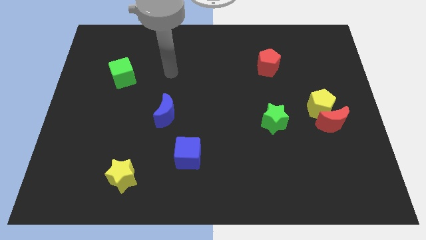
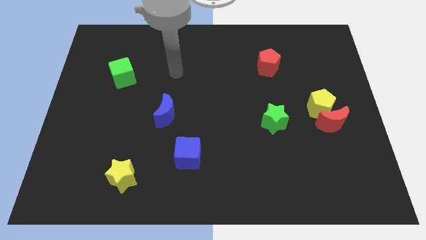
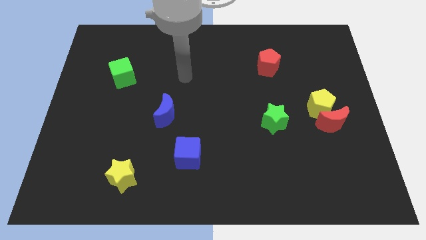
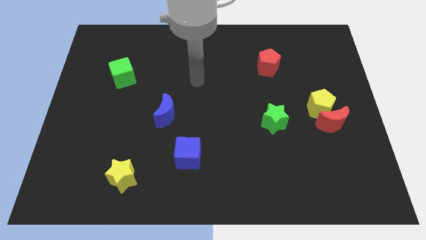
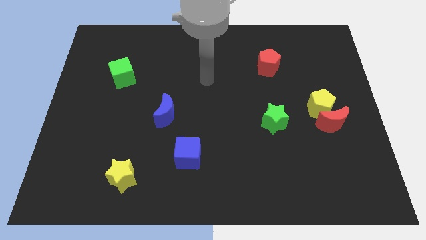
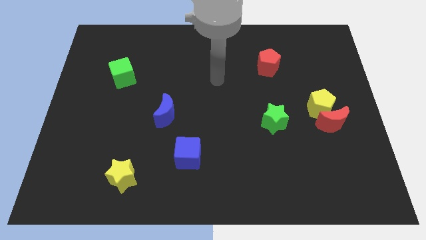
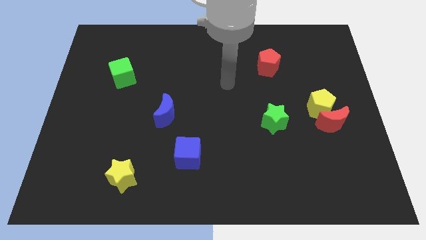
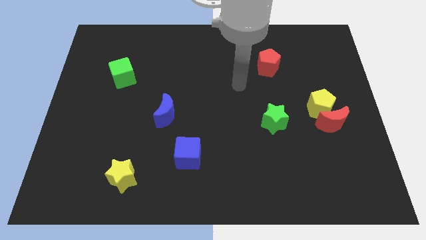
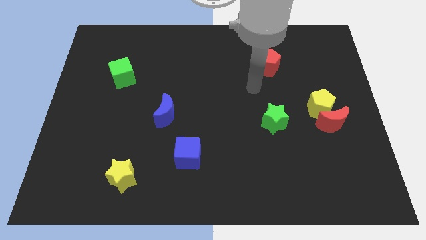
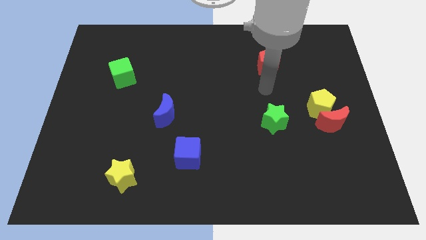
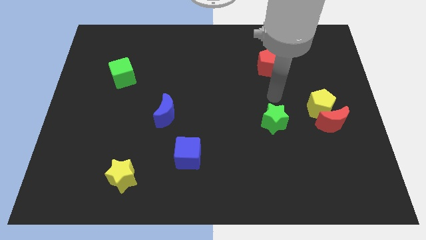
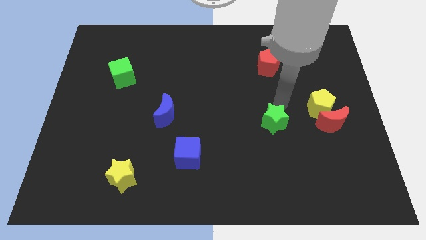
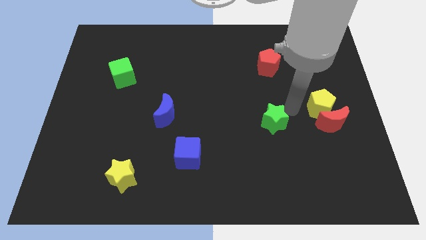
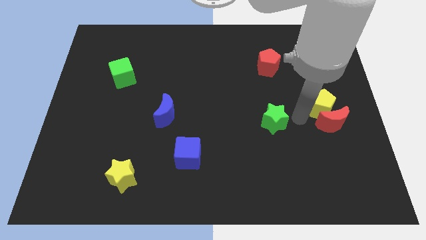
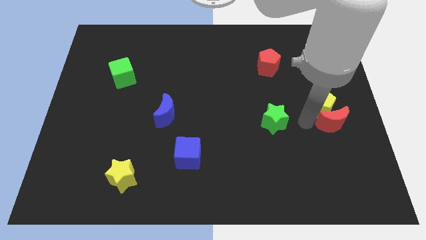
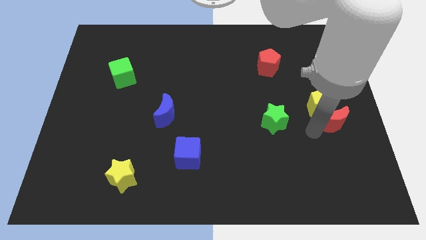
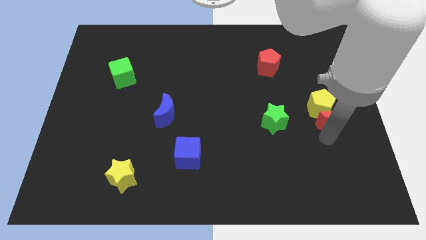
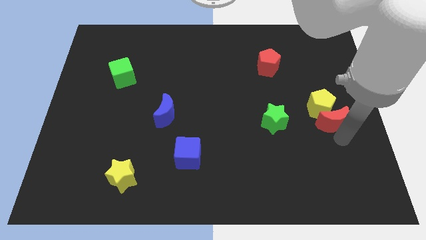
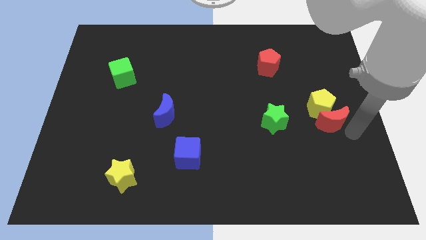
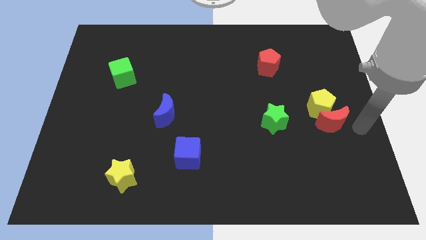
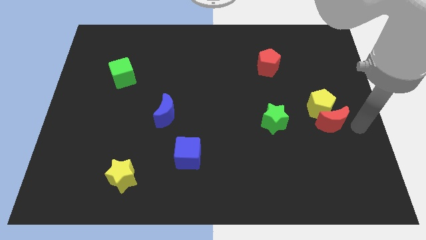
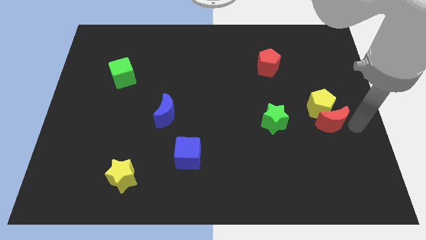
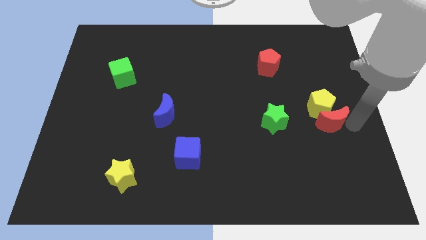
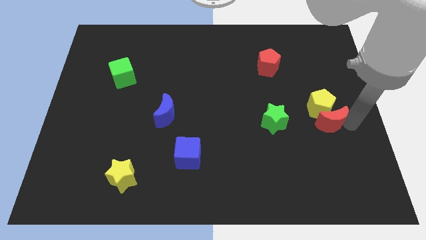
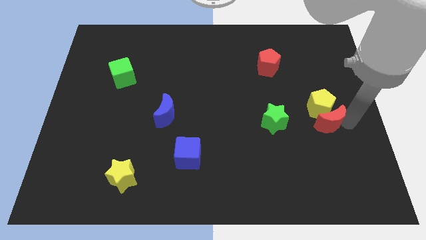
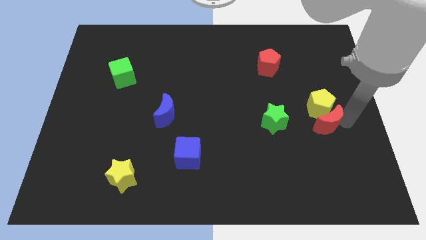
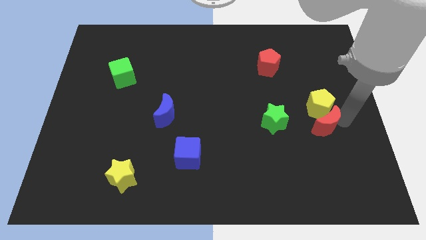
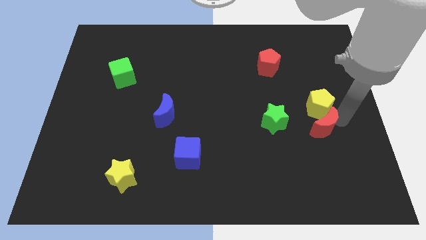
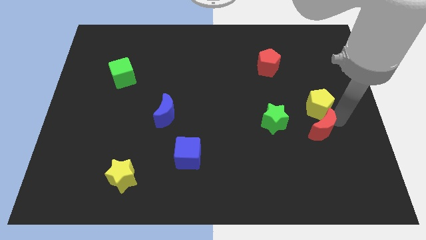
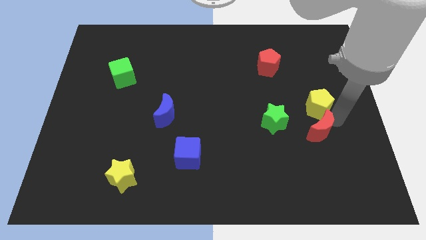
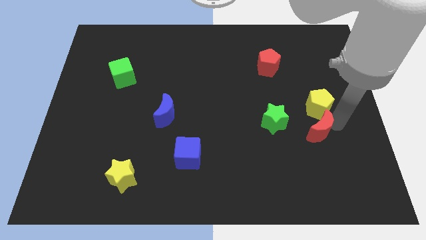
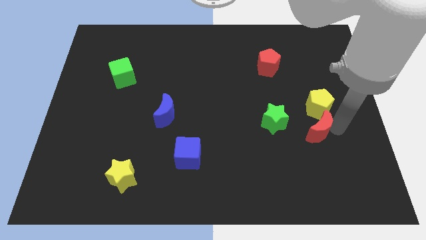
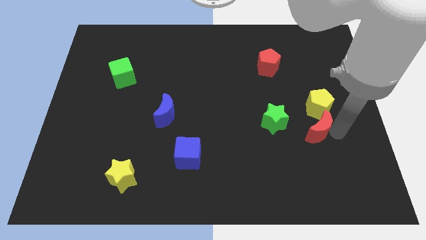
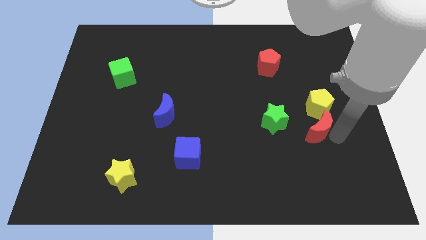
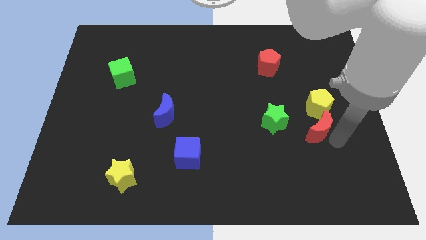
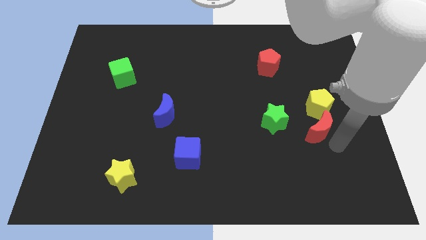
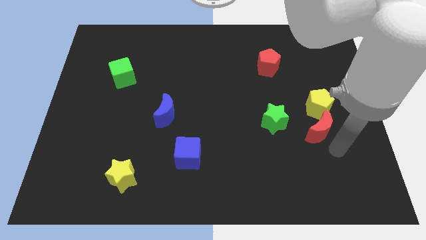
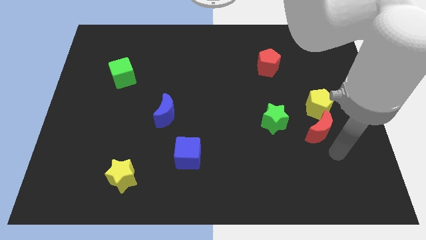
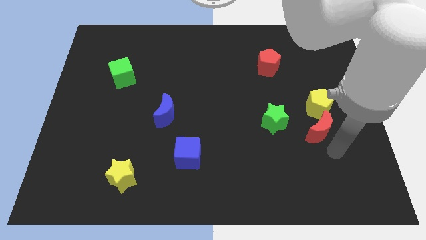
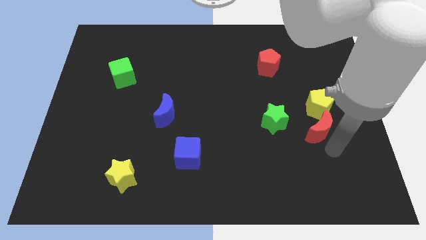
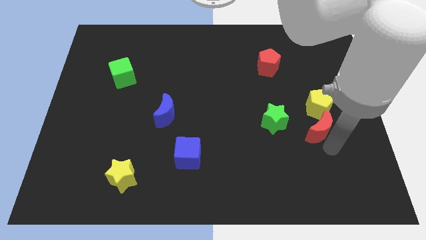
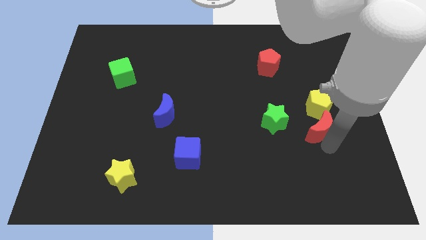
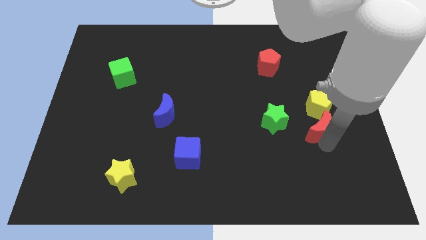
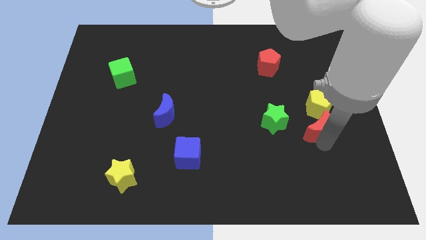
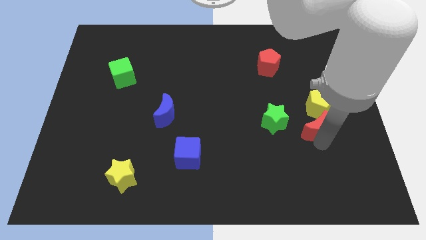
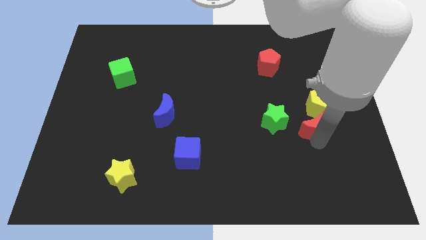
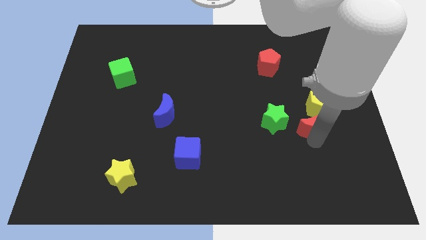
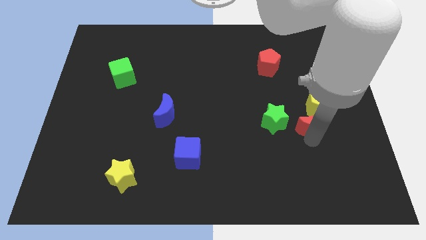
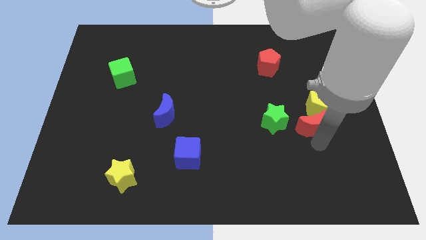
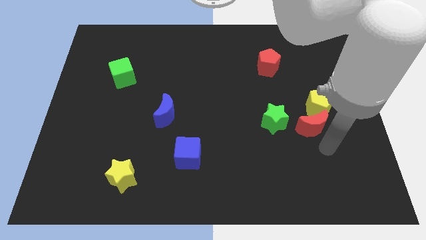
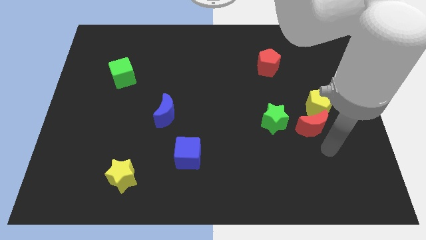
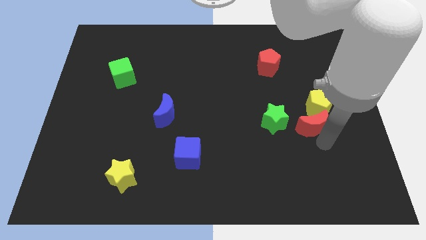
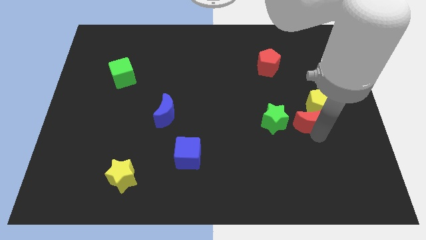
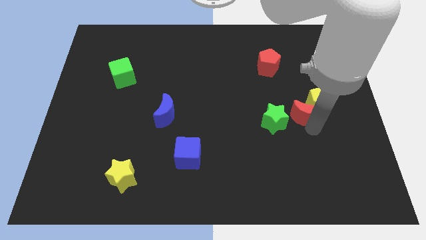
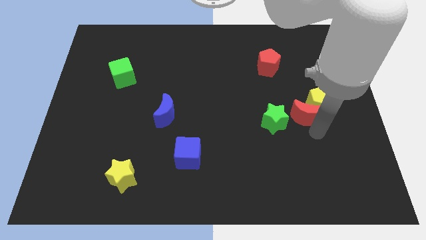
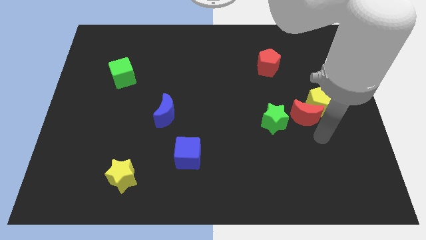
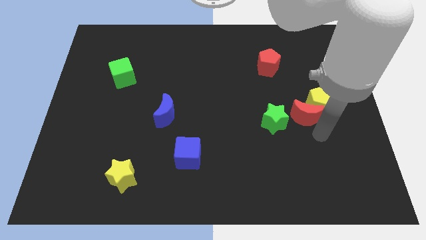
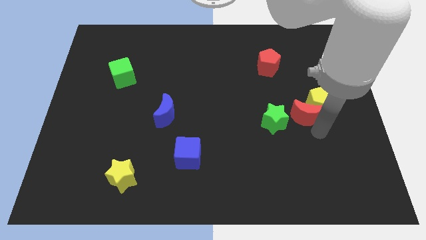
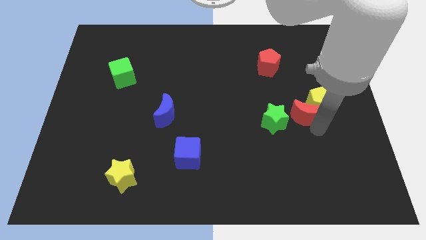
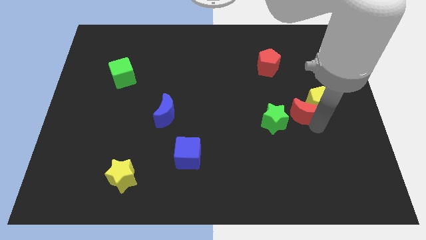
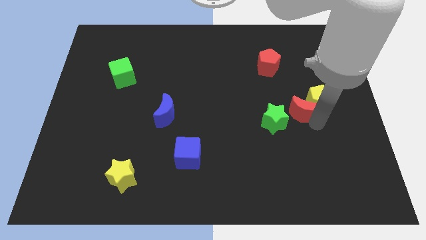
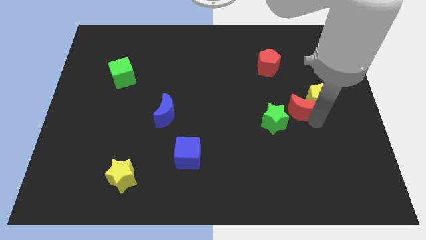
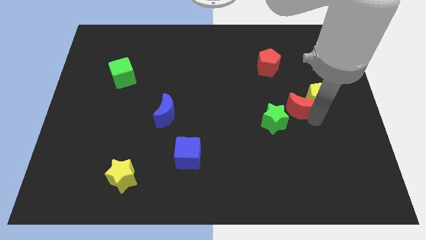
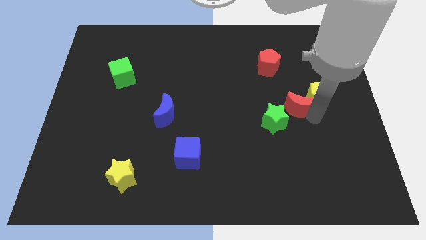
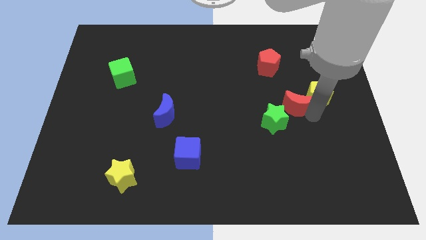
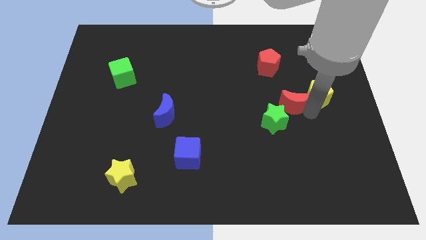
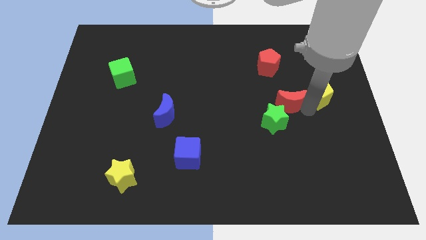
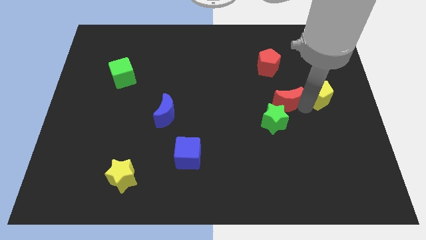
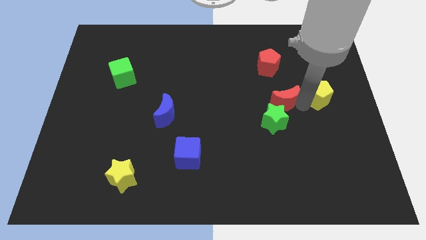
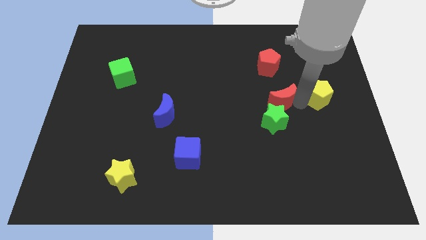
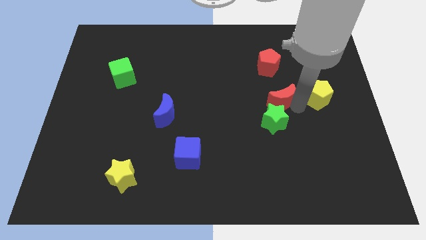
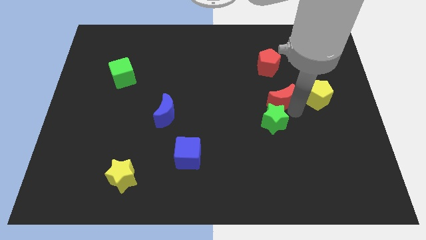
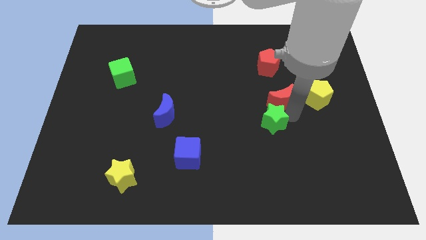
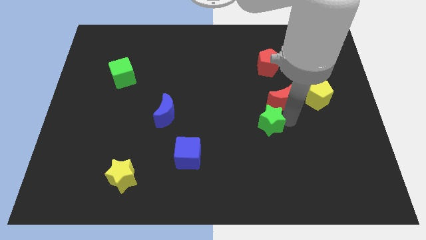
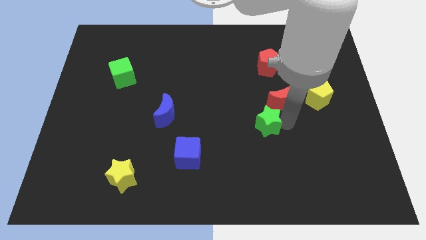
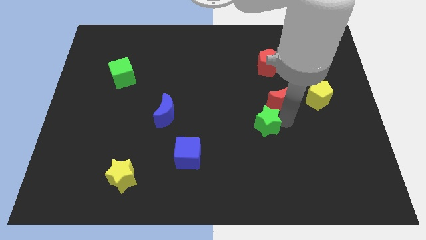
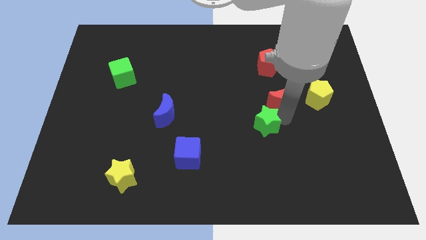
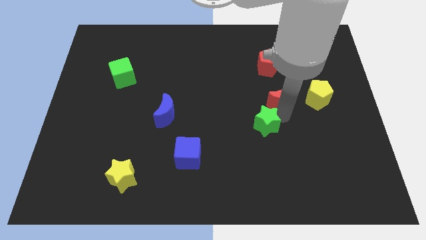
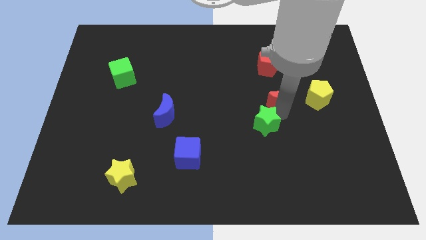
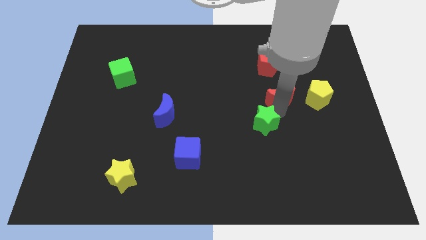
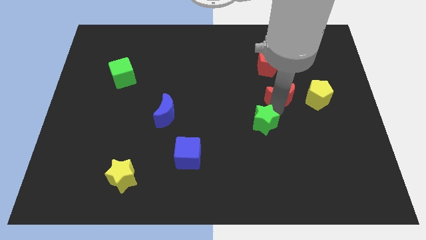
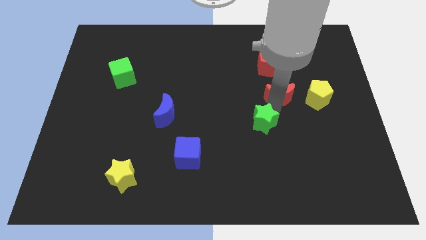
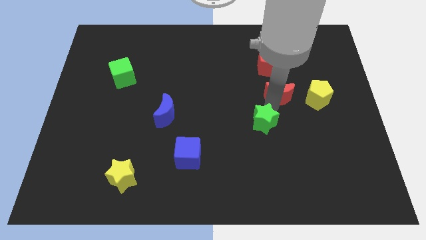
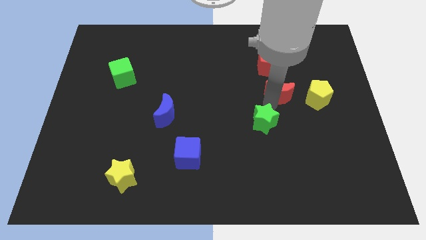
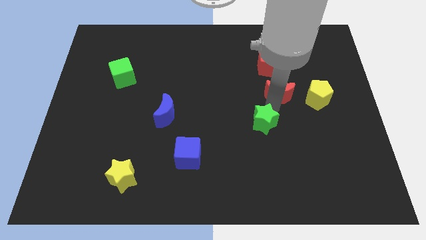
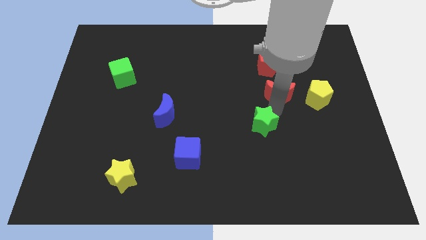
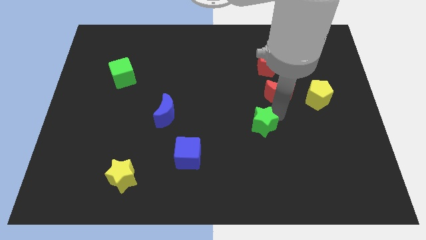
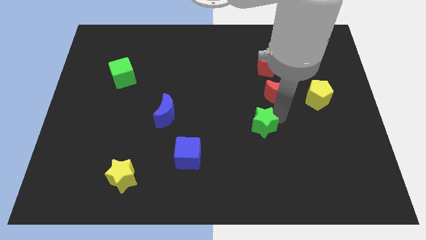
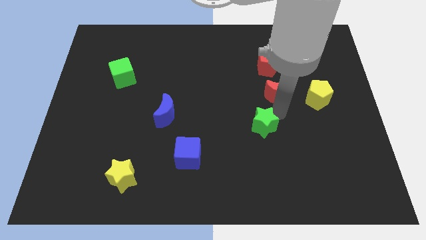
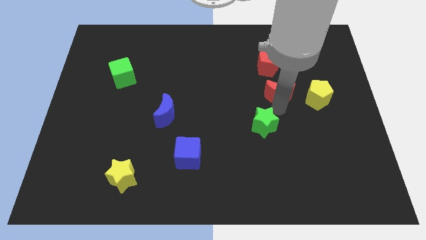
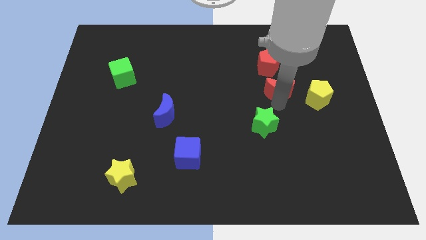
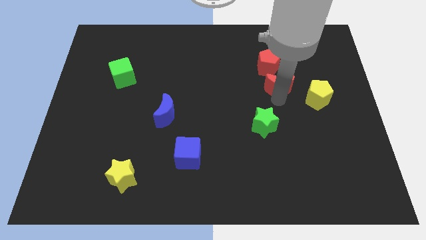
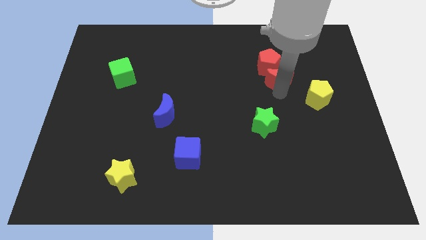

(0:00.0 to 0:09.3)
put the red moon to the red pentagon
